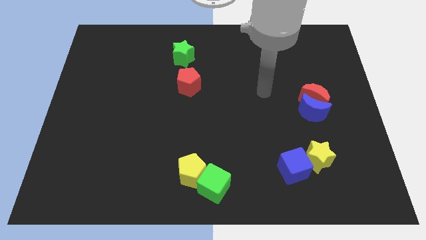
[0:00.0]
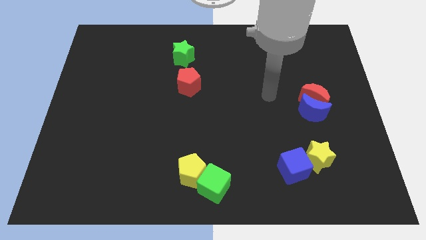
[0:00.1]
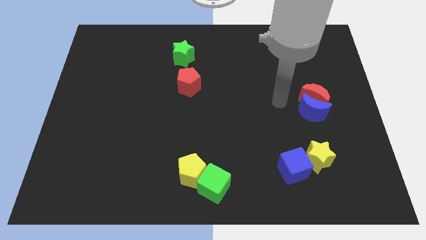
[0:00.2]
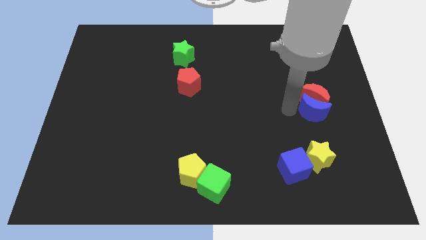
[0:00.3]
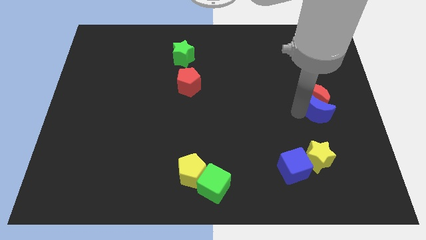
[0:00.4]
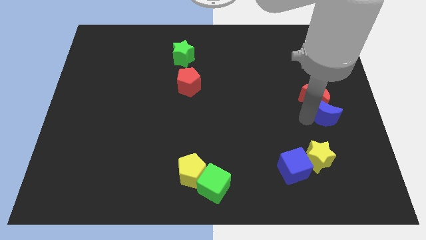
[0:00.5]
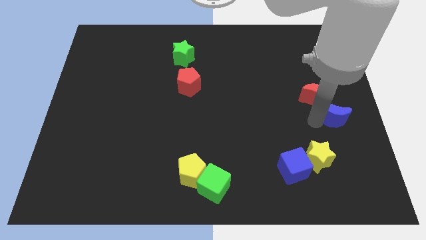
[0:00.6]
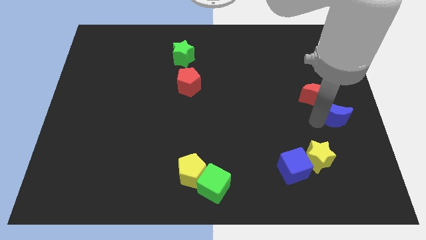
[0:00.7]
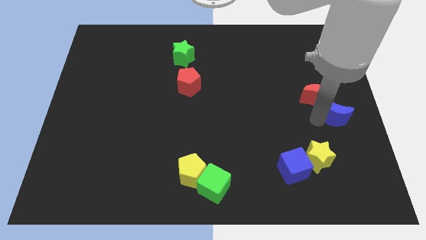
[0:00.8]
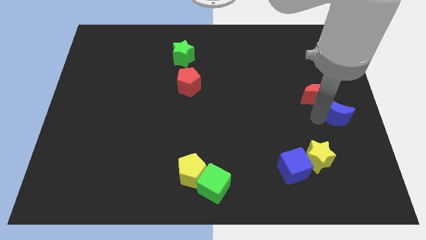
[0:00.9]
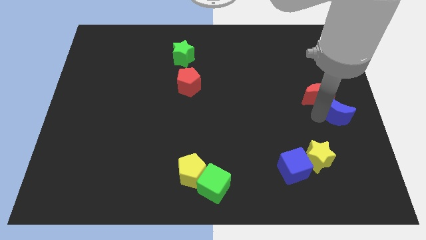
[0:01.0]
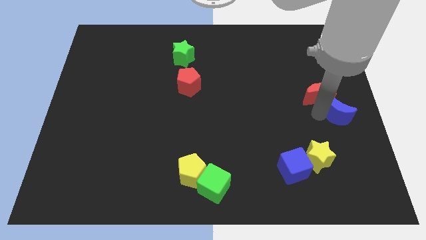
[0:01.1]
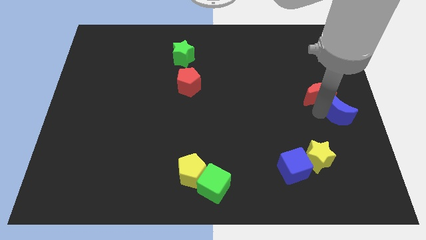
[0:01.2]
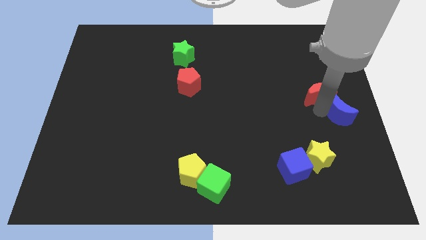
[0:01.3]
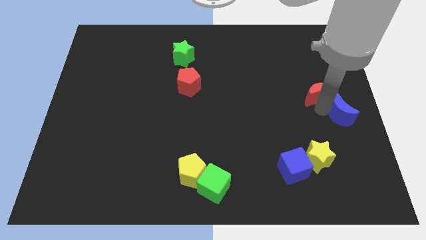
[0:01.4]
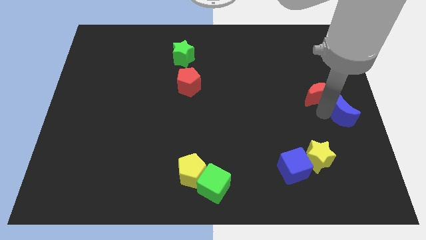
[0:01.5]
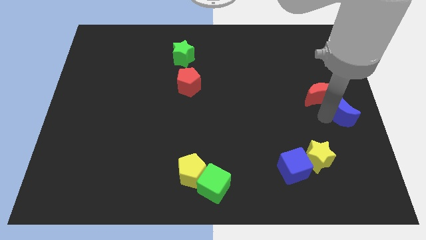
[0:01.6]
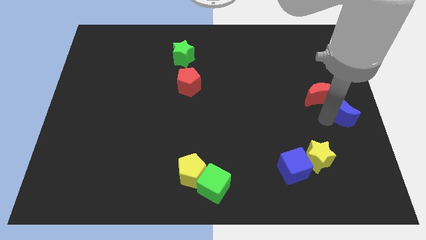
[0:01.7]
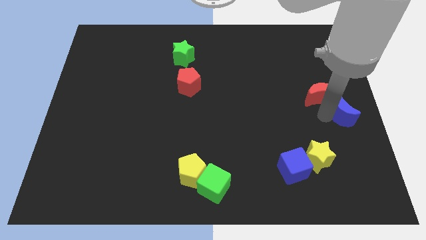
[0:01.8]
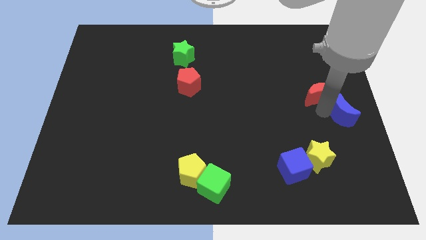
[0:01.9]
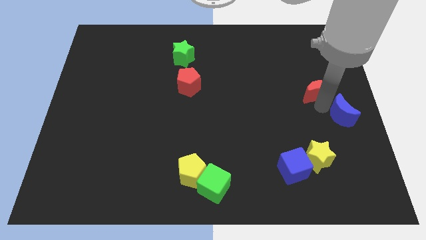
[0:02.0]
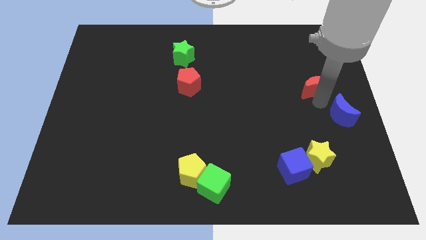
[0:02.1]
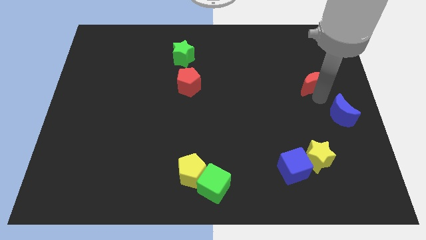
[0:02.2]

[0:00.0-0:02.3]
move the red moon away from the blue moon

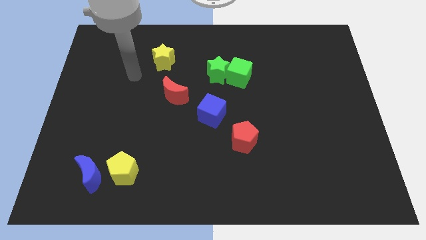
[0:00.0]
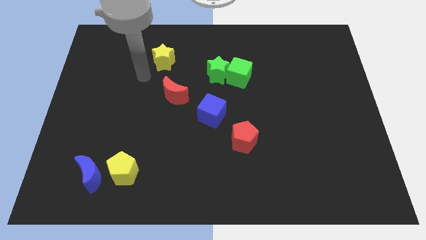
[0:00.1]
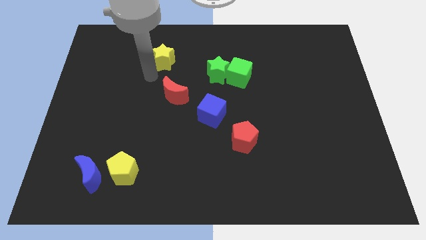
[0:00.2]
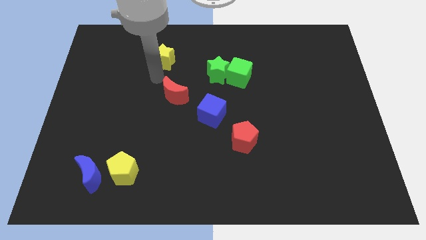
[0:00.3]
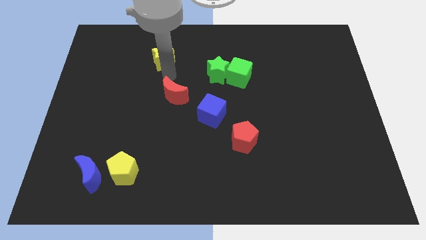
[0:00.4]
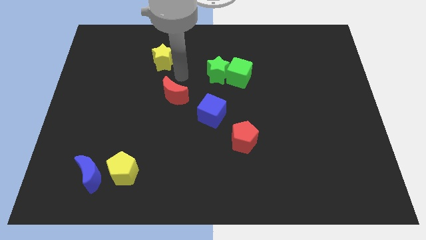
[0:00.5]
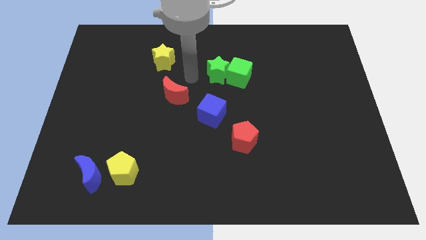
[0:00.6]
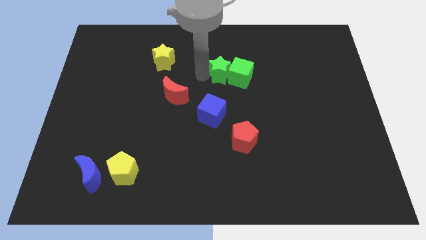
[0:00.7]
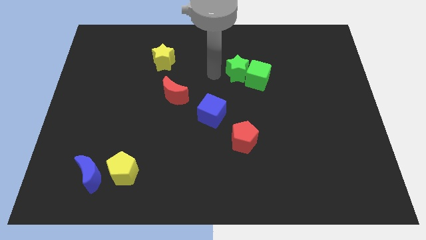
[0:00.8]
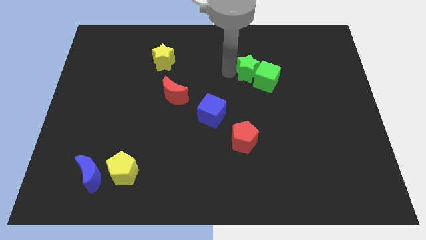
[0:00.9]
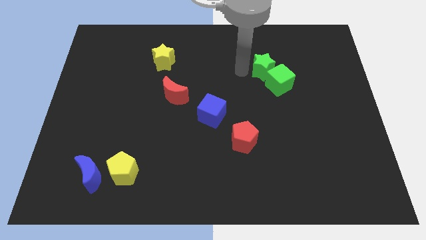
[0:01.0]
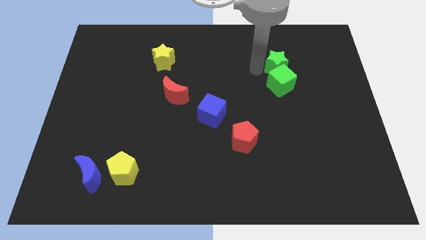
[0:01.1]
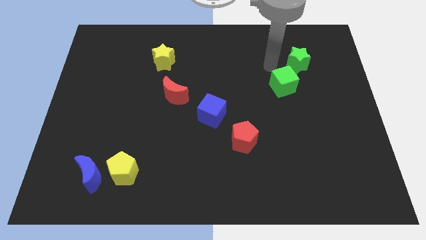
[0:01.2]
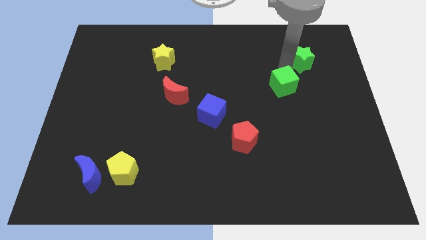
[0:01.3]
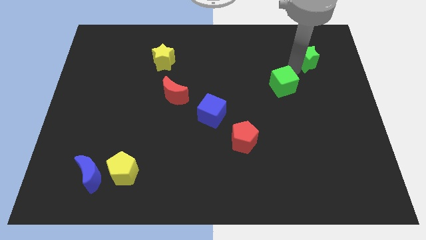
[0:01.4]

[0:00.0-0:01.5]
move the green cube away from the green star

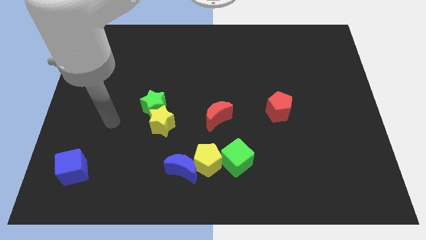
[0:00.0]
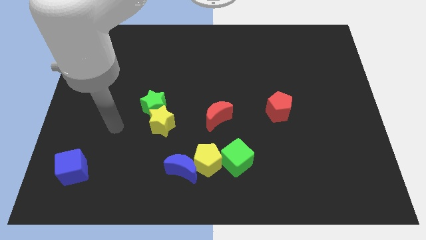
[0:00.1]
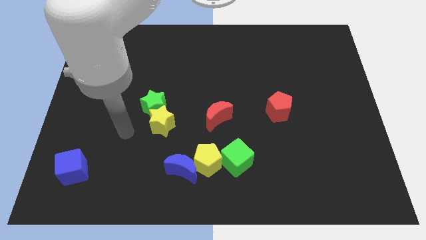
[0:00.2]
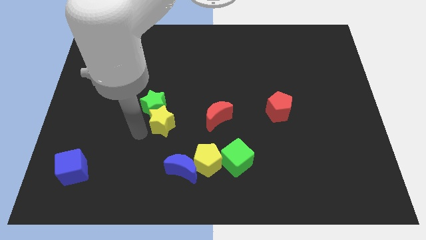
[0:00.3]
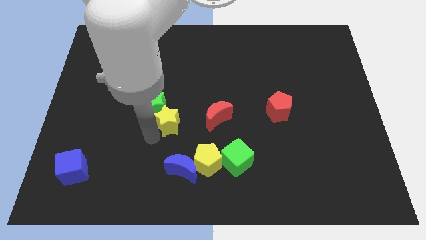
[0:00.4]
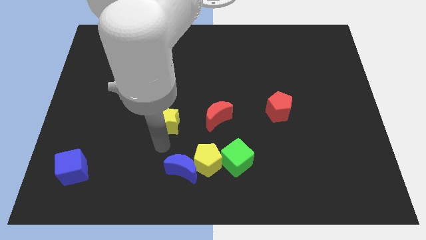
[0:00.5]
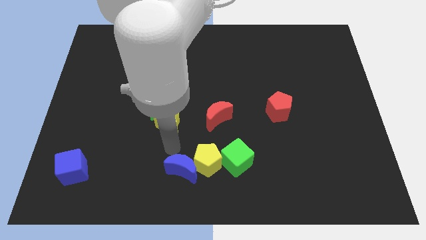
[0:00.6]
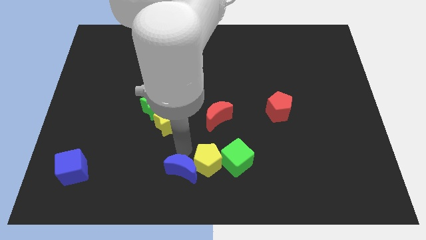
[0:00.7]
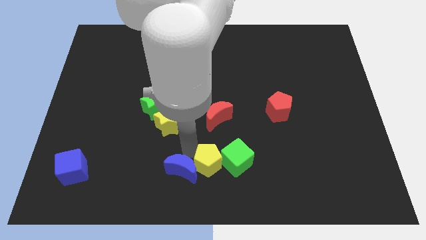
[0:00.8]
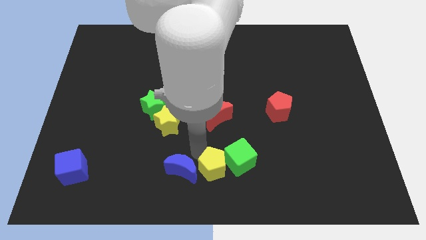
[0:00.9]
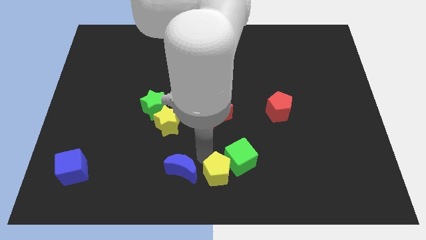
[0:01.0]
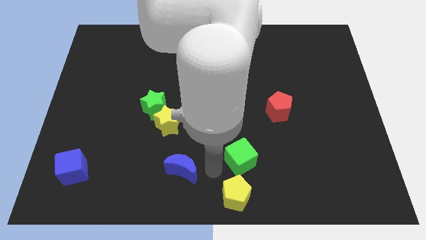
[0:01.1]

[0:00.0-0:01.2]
move the blue moon away from the yellow pentagon

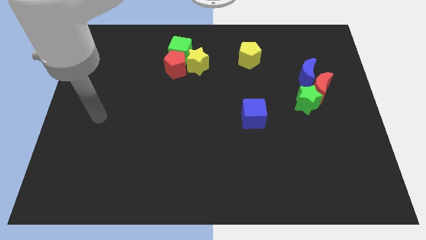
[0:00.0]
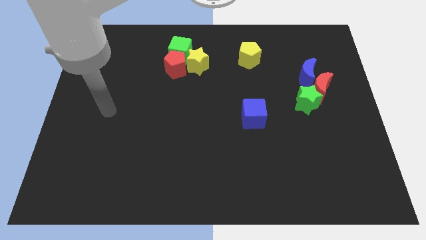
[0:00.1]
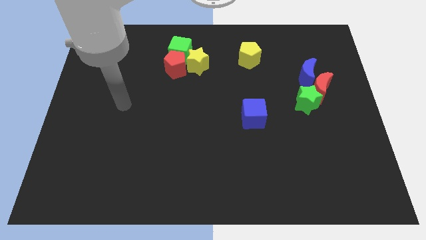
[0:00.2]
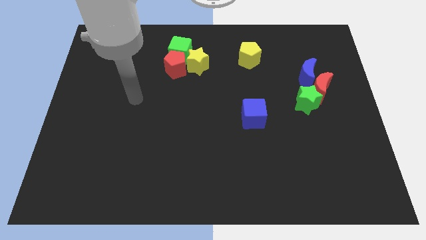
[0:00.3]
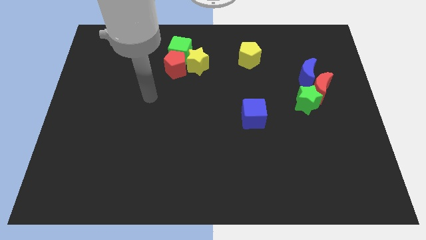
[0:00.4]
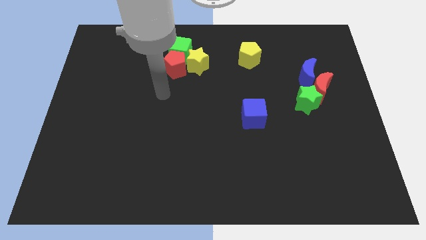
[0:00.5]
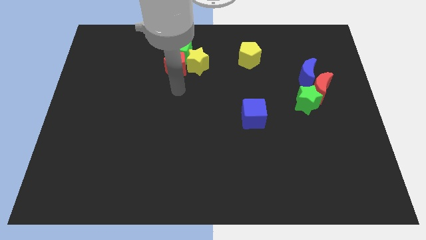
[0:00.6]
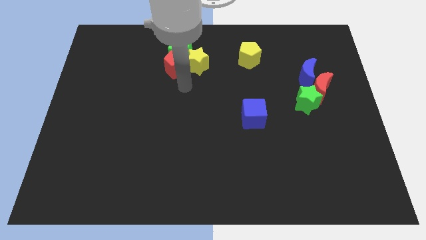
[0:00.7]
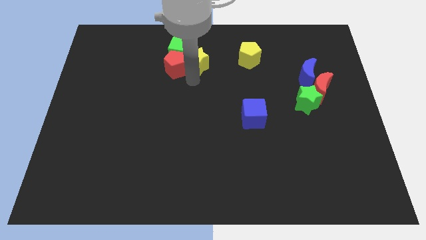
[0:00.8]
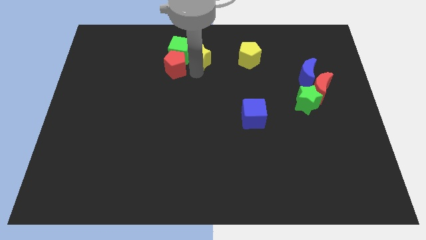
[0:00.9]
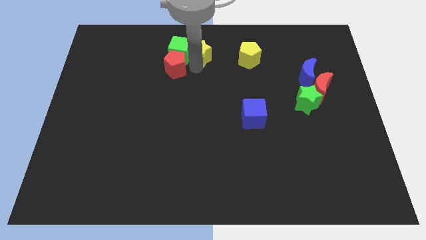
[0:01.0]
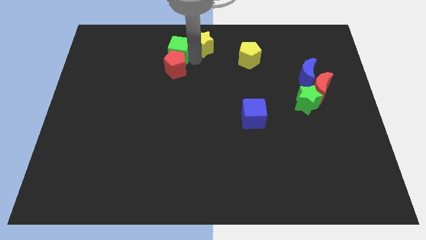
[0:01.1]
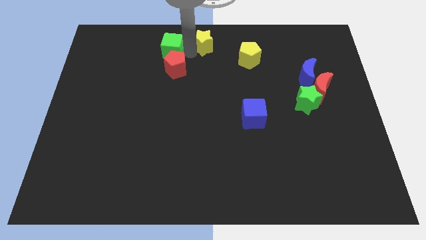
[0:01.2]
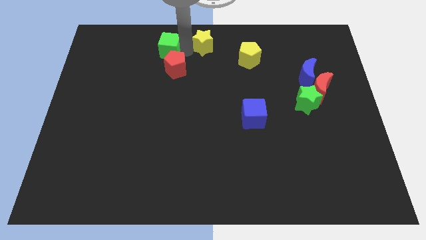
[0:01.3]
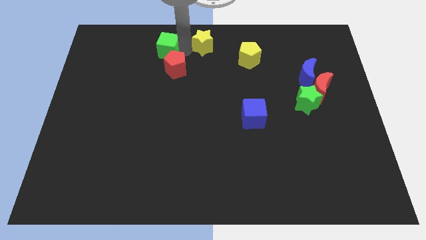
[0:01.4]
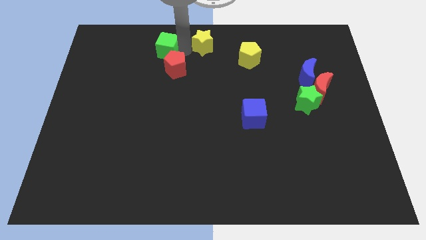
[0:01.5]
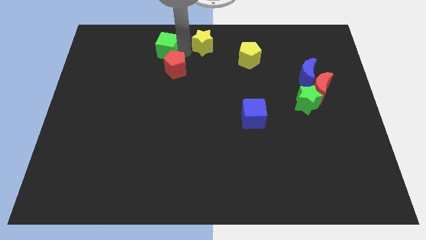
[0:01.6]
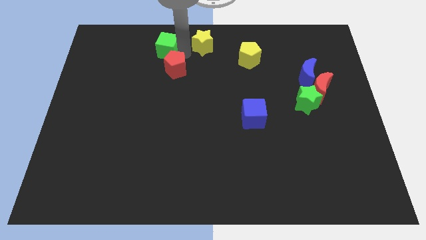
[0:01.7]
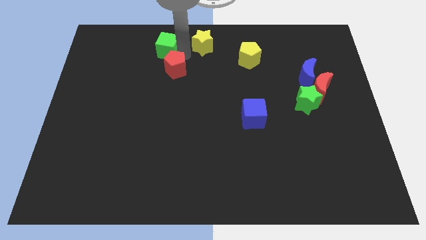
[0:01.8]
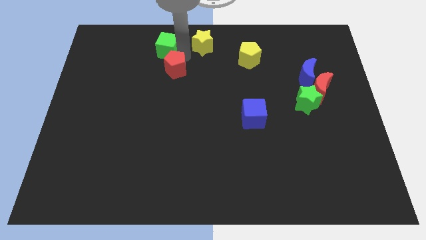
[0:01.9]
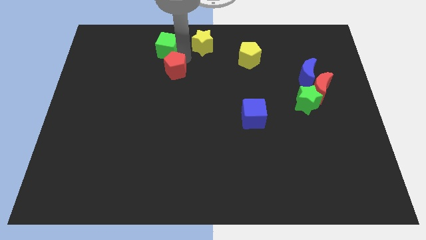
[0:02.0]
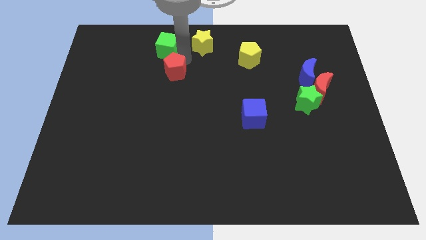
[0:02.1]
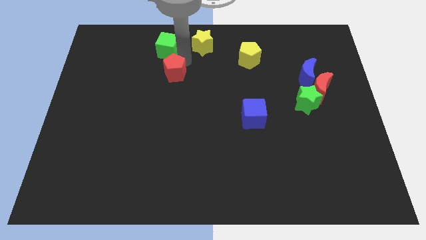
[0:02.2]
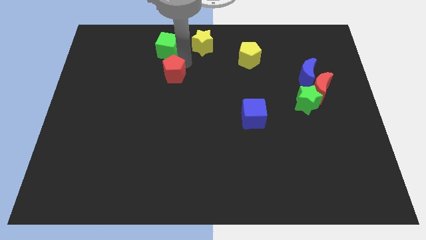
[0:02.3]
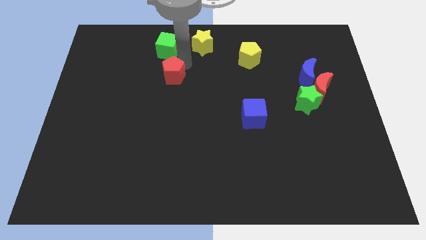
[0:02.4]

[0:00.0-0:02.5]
separate the red pentagon from the green cube and yellow star

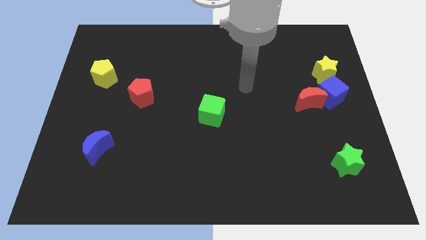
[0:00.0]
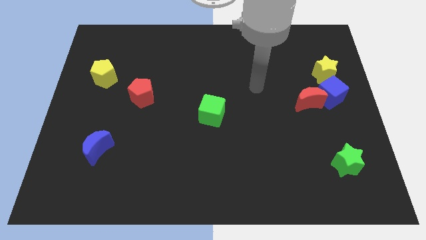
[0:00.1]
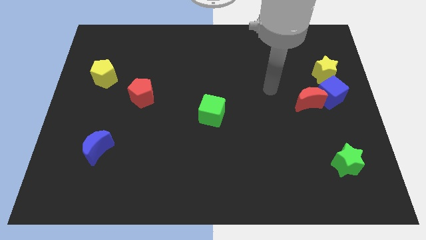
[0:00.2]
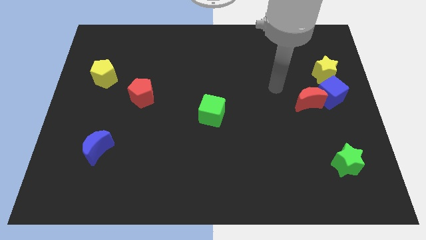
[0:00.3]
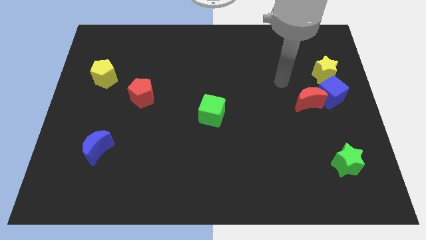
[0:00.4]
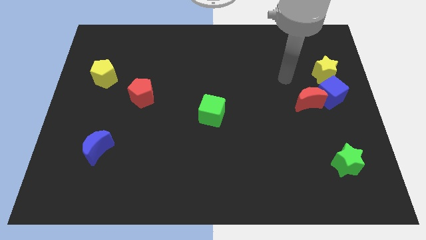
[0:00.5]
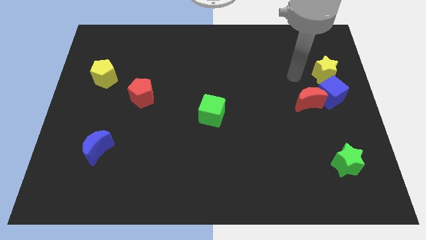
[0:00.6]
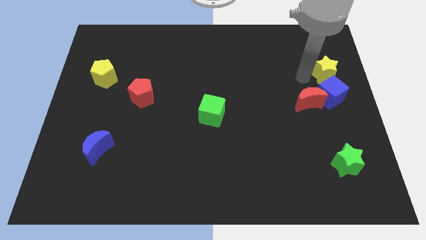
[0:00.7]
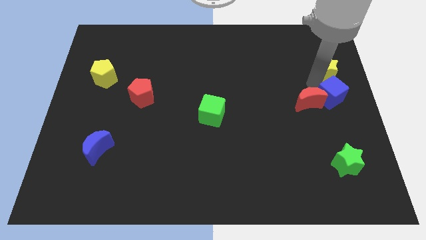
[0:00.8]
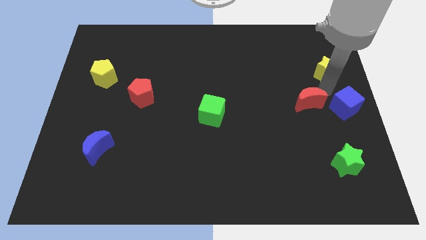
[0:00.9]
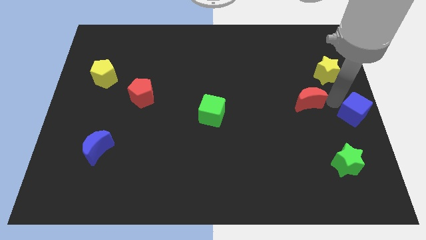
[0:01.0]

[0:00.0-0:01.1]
pull the red moon apart from the blue cube

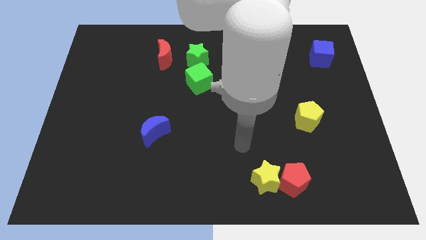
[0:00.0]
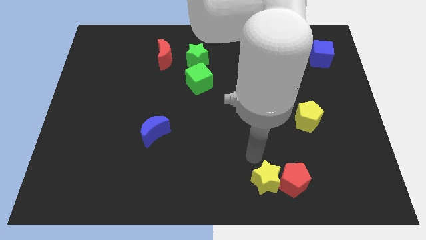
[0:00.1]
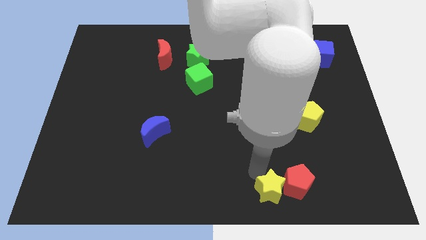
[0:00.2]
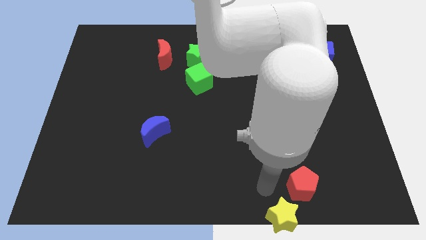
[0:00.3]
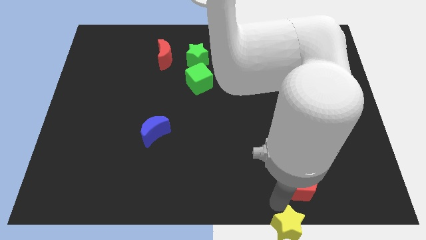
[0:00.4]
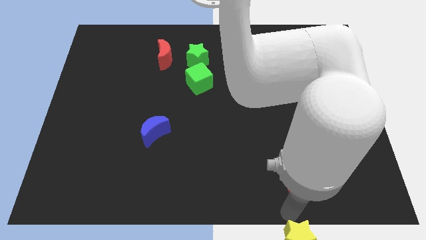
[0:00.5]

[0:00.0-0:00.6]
move the red pentagon away from the yellow star

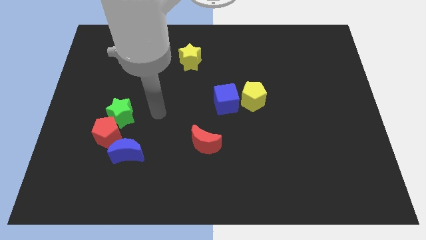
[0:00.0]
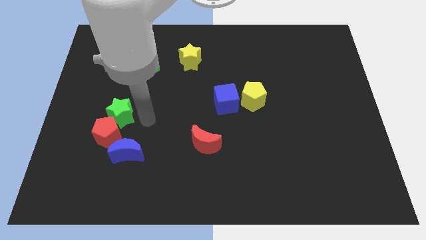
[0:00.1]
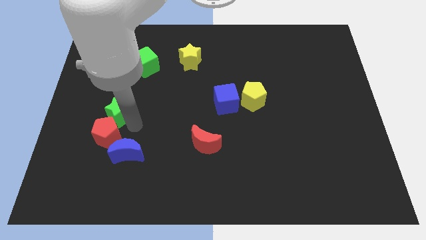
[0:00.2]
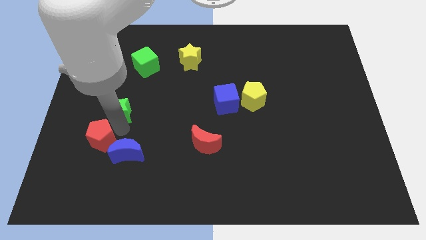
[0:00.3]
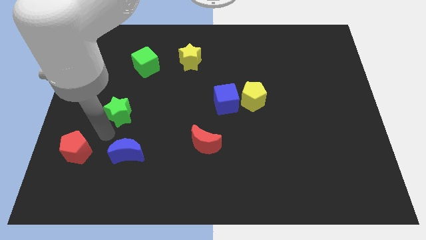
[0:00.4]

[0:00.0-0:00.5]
move the green star away from the red pentagon
